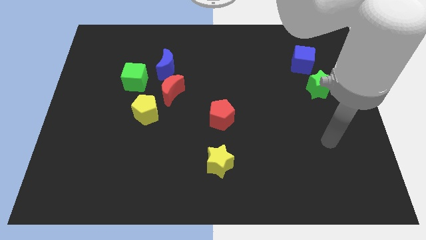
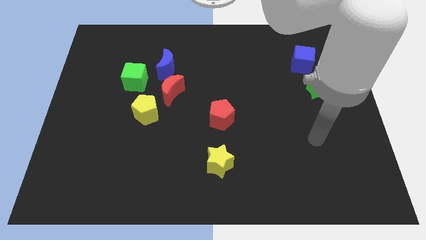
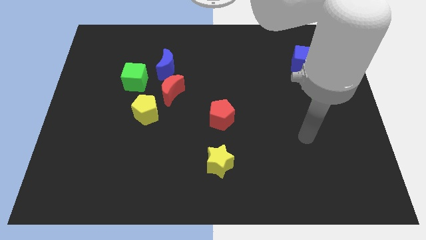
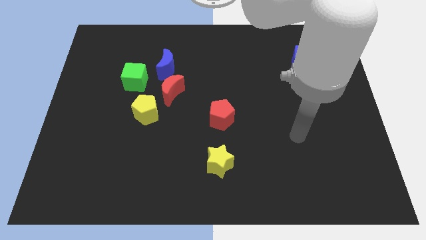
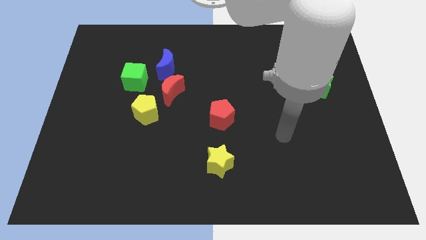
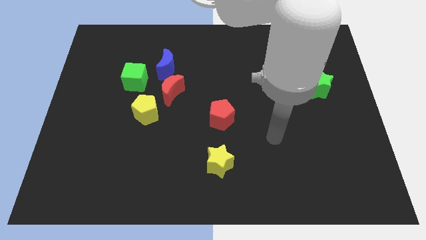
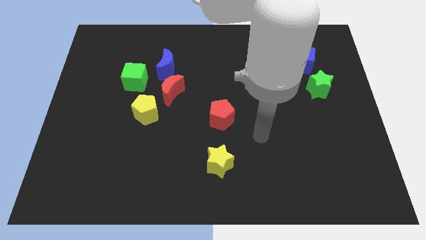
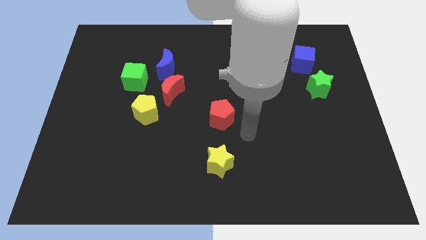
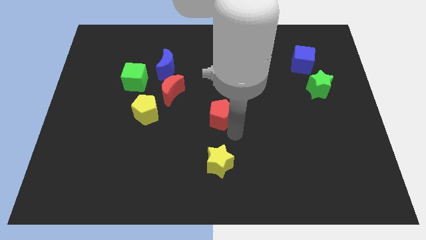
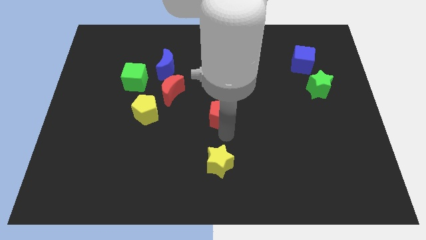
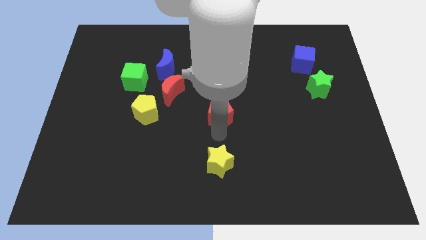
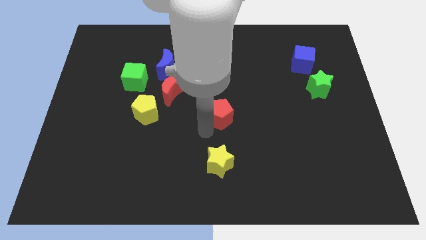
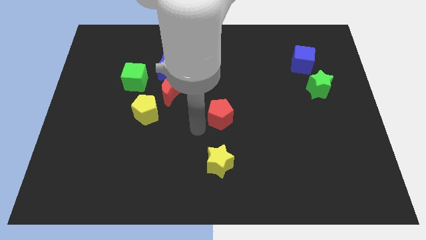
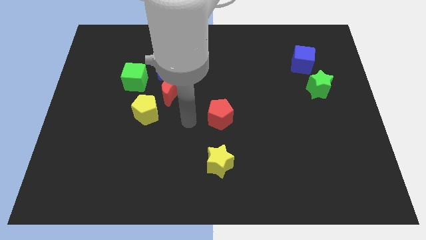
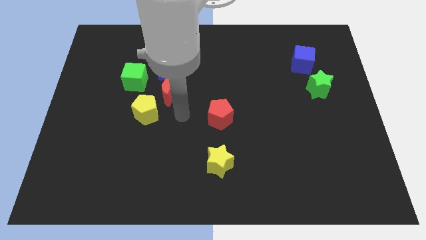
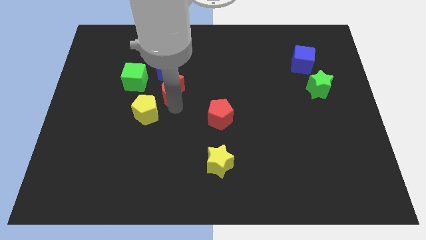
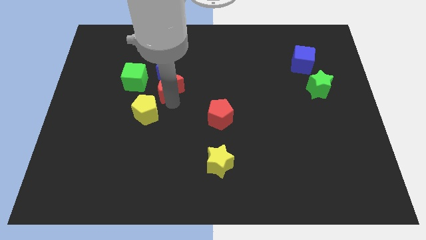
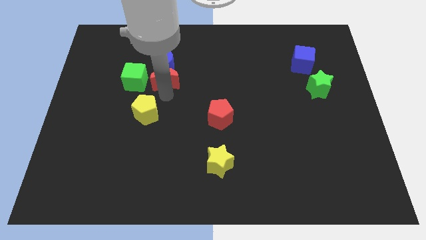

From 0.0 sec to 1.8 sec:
separate the yellow pentagon from the red moon

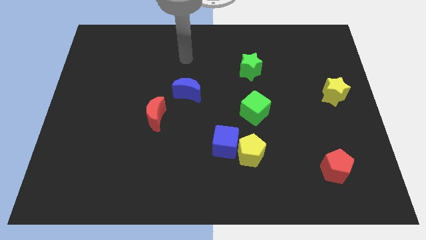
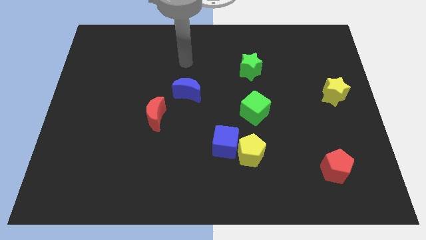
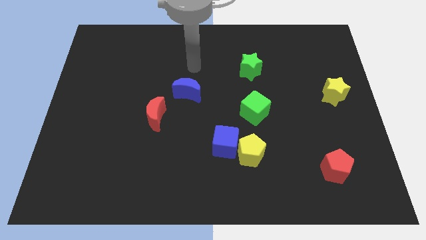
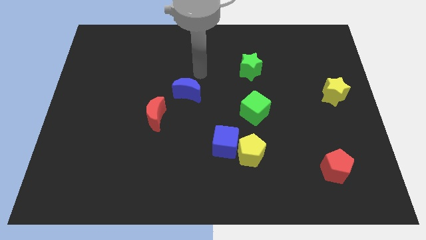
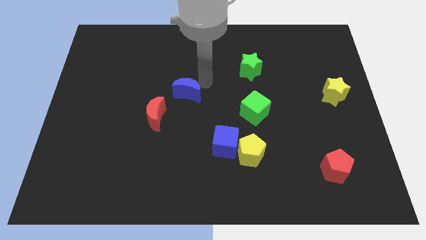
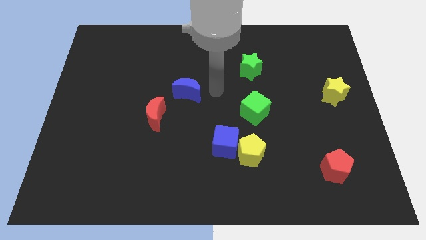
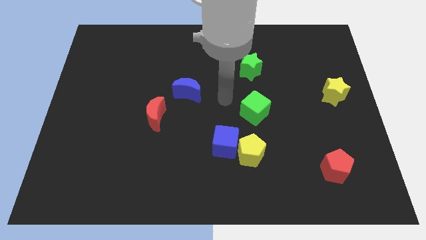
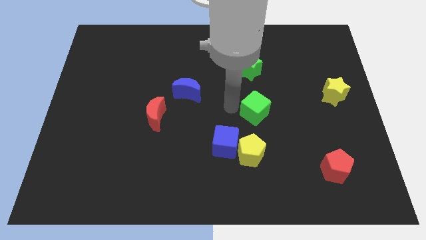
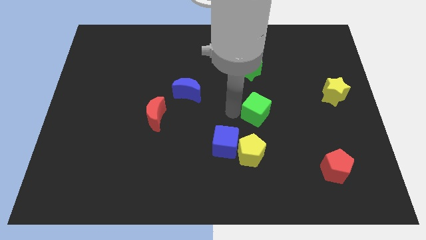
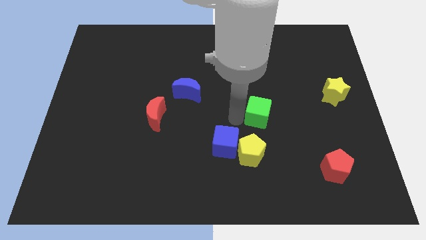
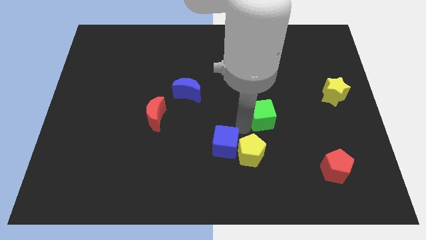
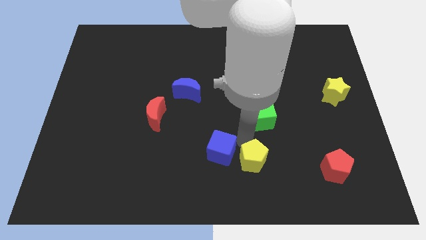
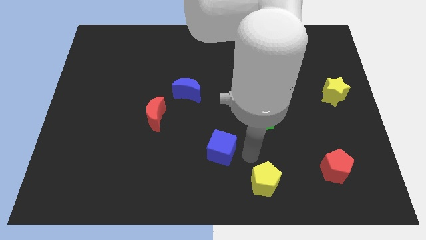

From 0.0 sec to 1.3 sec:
separate the blue cube from the yellow pentagon

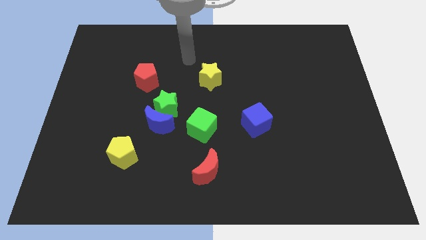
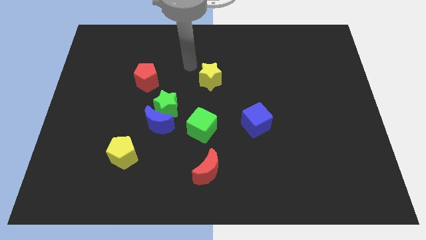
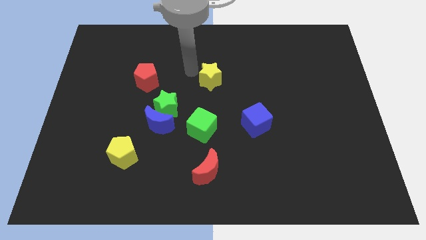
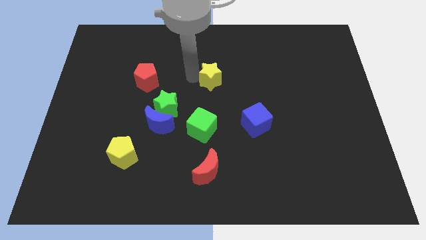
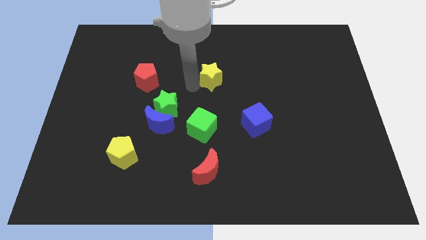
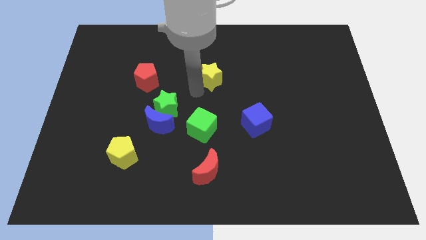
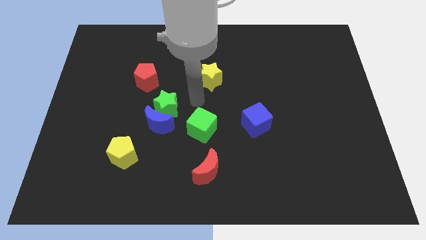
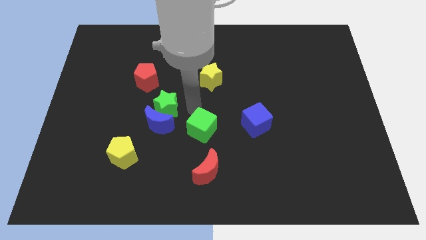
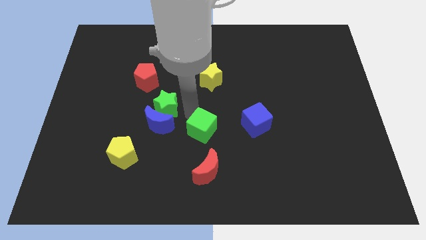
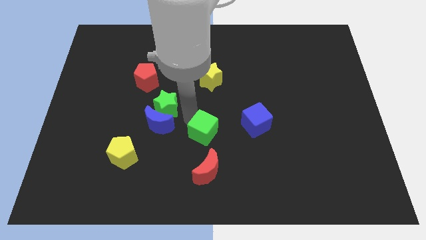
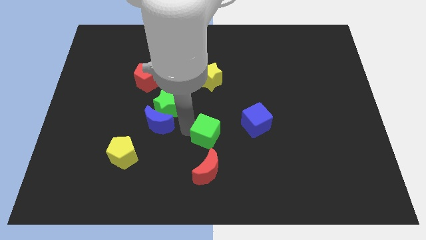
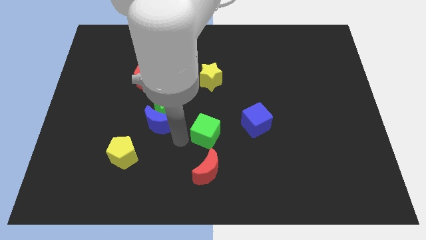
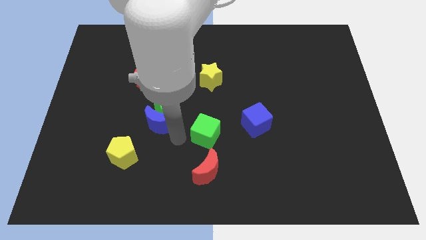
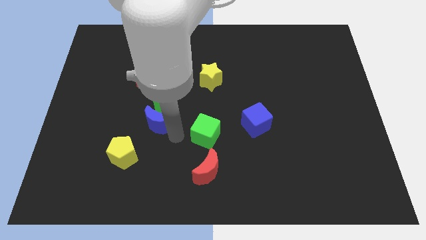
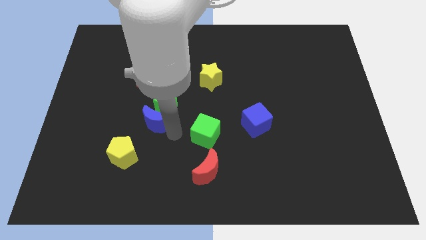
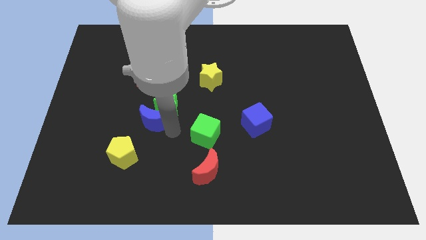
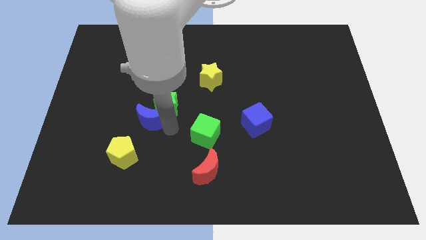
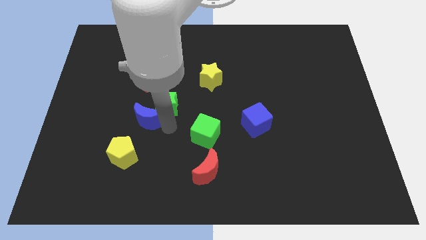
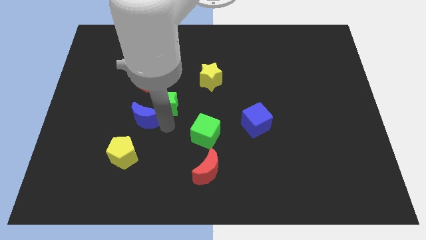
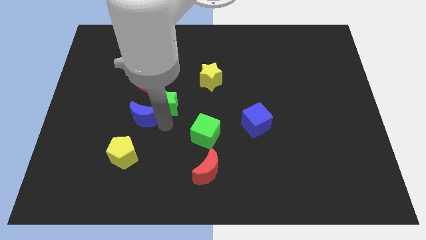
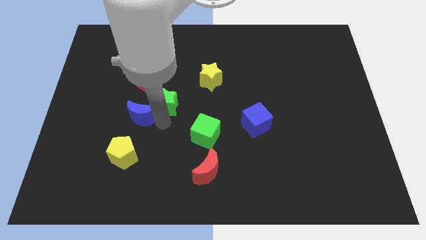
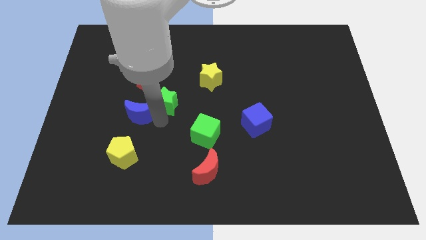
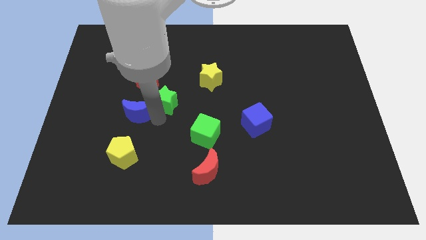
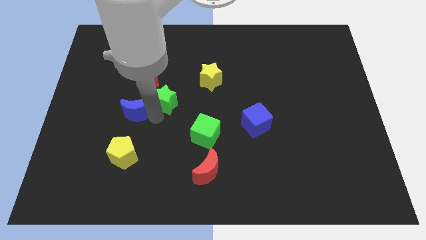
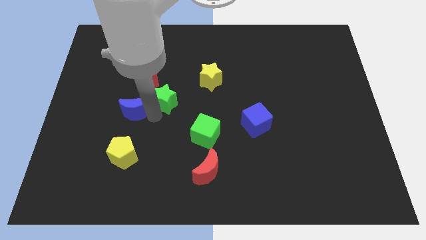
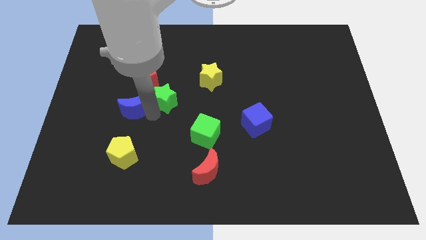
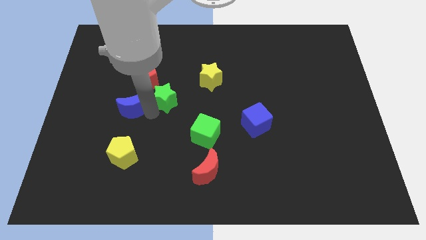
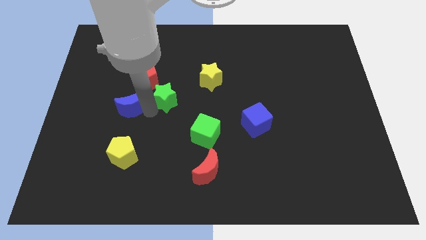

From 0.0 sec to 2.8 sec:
separate the blue moon from the clump

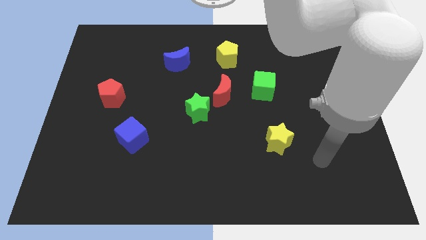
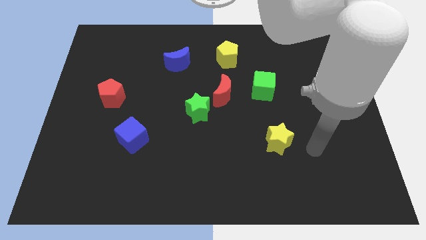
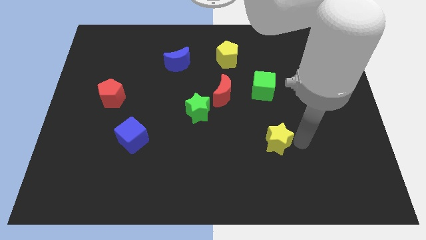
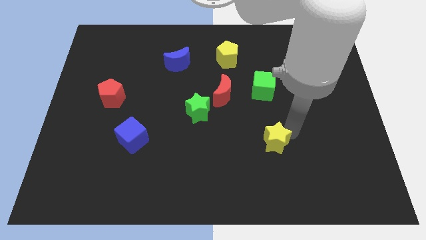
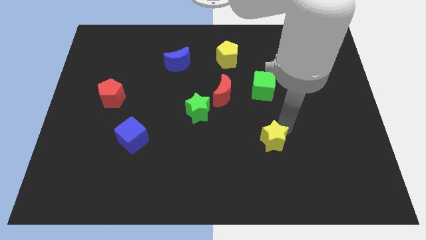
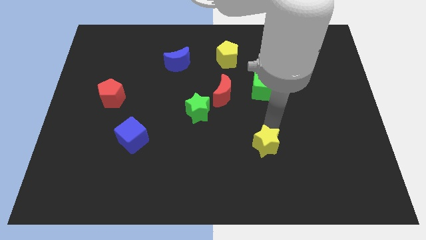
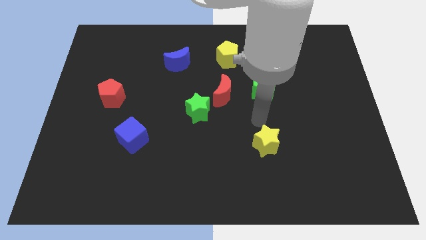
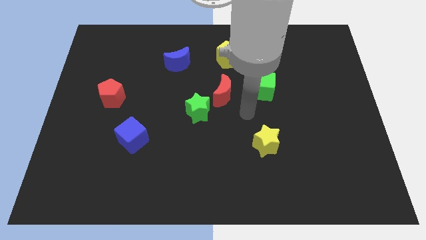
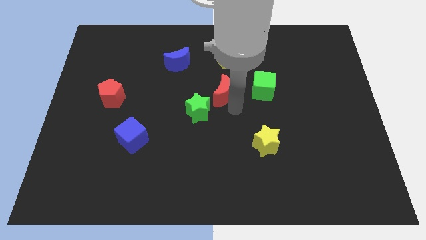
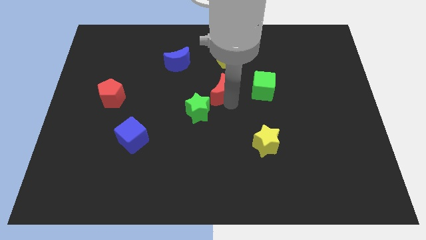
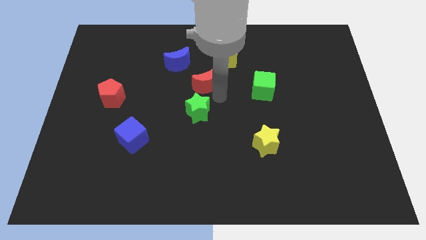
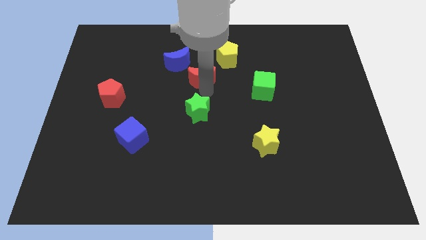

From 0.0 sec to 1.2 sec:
move the green star away from the red moon

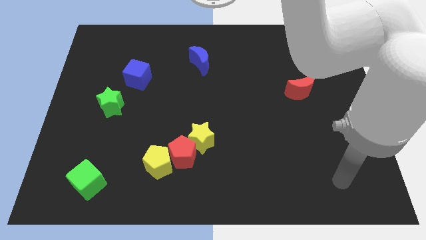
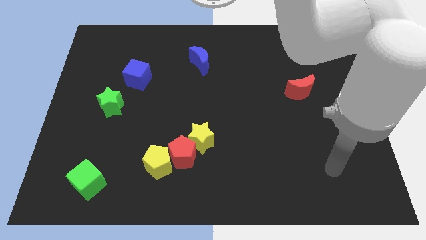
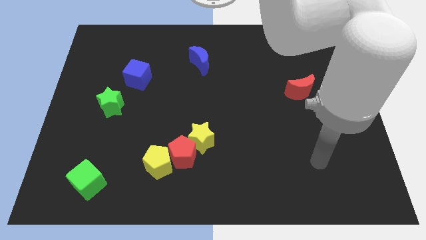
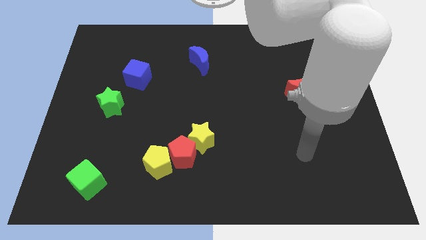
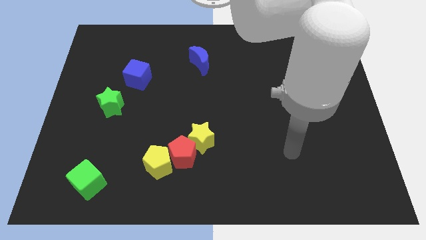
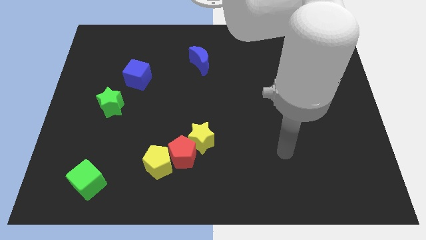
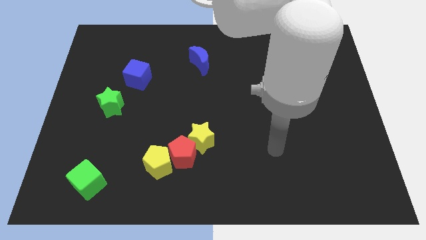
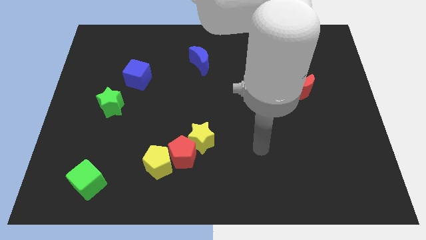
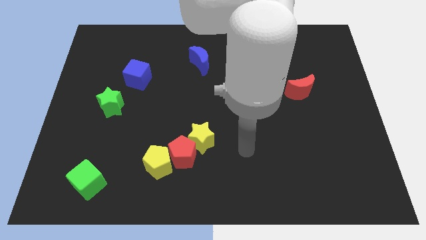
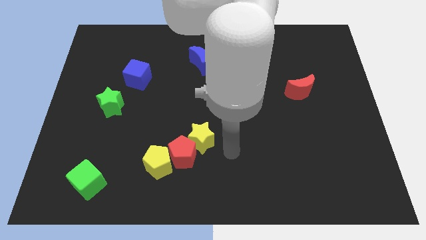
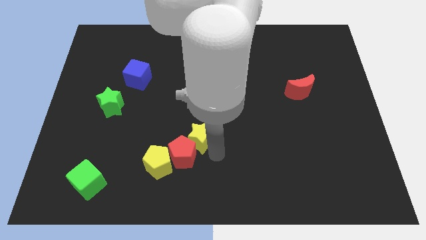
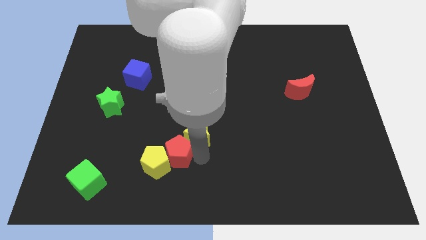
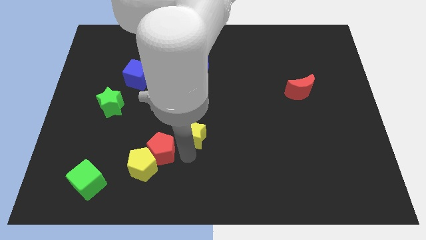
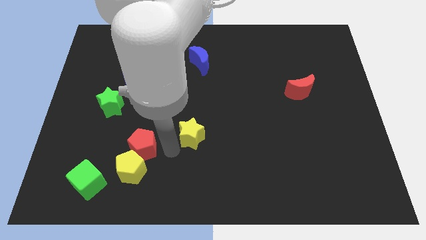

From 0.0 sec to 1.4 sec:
pull the yellow star apart from the red pentagon

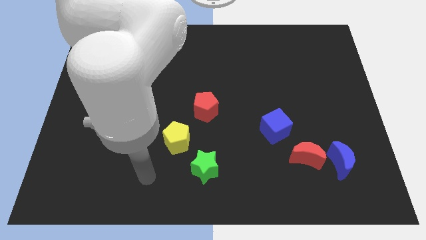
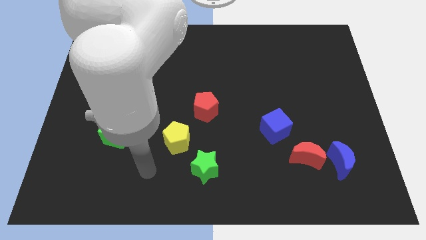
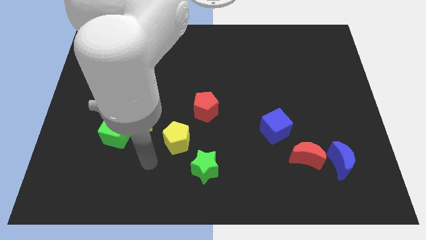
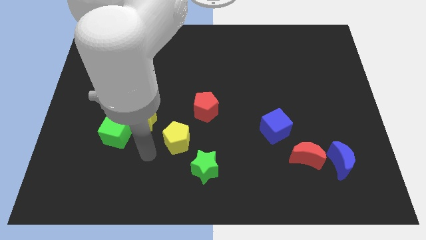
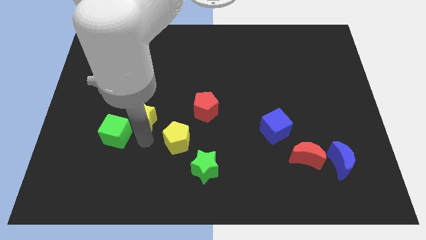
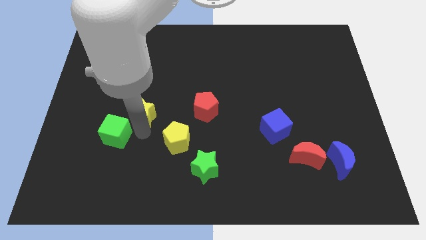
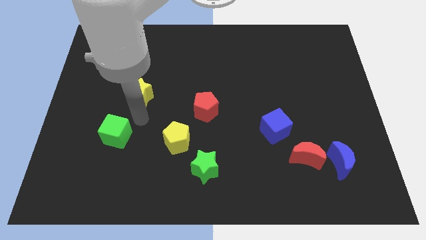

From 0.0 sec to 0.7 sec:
separate the green cube from the yellow star
